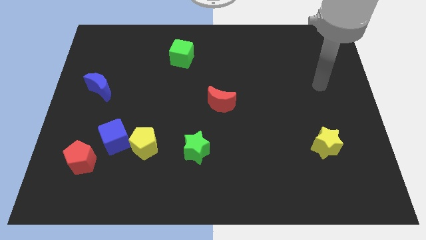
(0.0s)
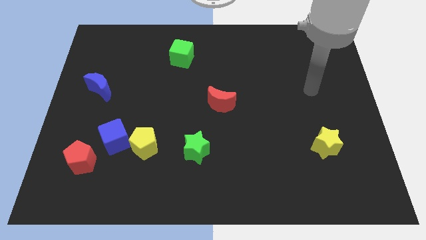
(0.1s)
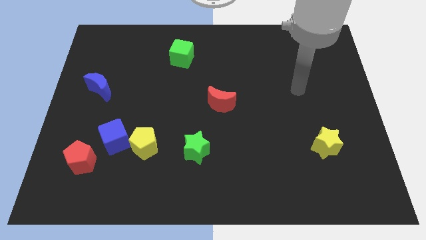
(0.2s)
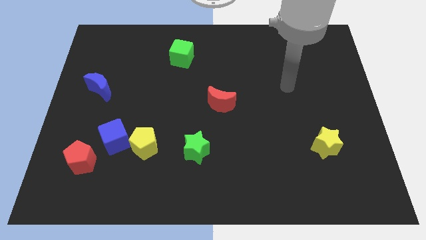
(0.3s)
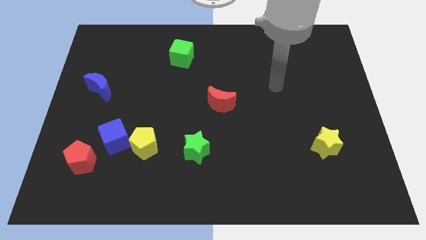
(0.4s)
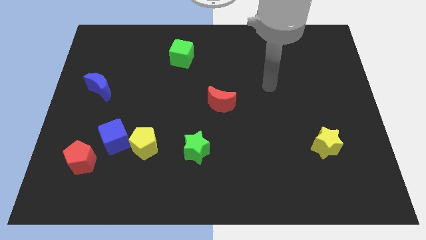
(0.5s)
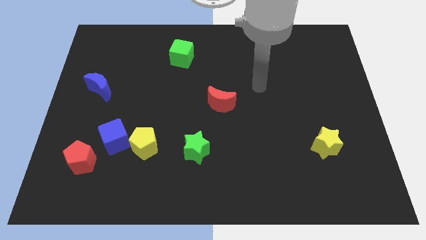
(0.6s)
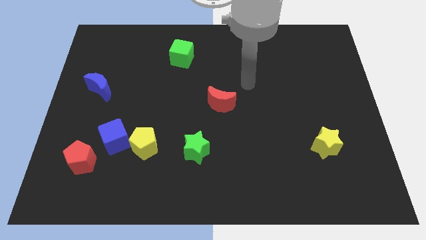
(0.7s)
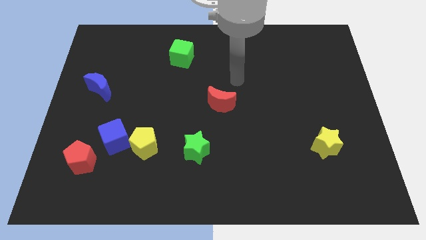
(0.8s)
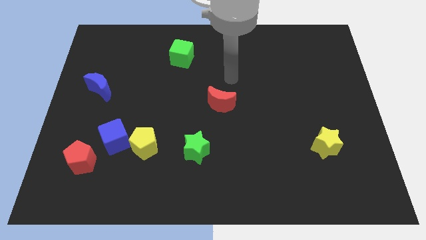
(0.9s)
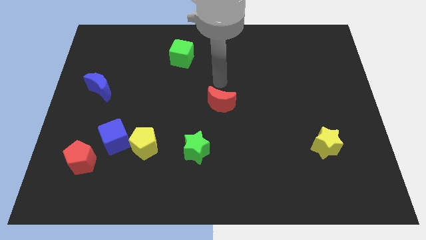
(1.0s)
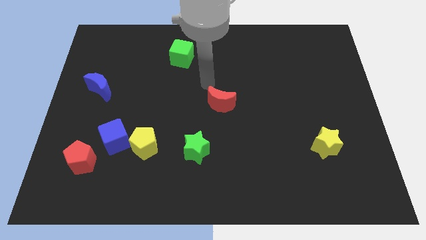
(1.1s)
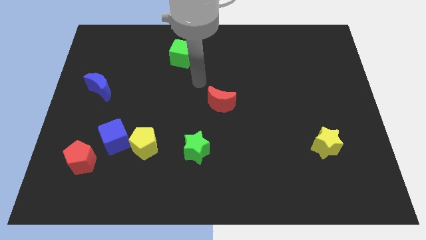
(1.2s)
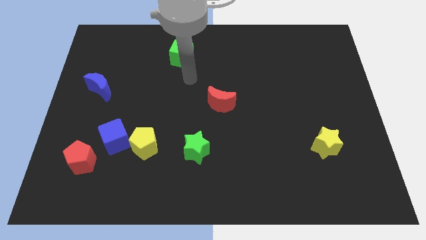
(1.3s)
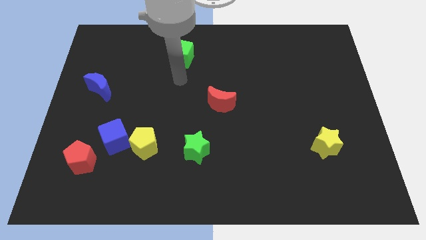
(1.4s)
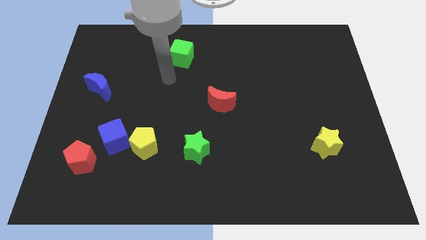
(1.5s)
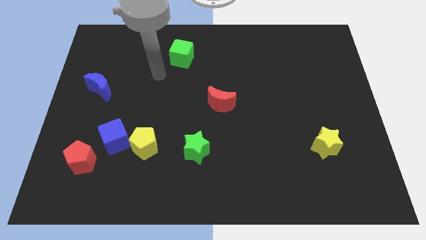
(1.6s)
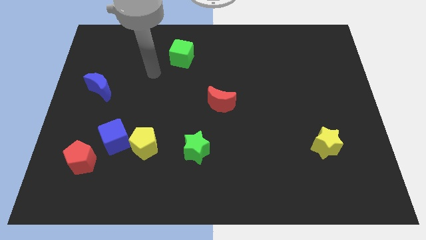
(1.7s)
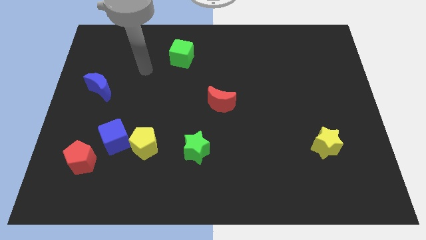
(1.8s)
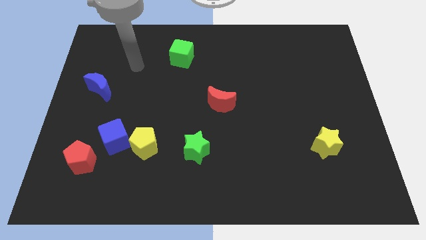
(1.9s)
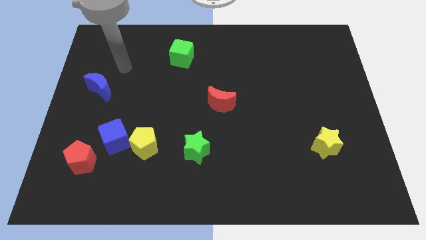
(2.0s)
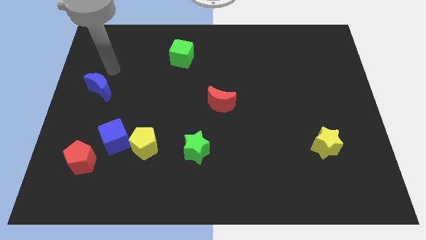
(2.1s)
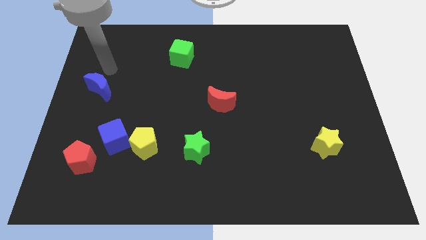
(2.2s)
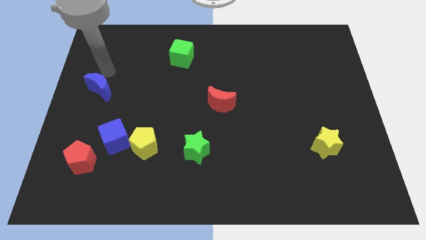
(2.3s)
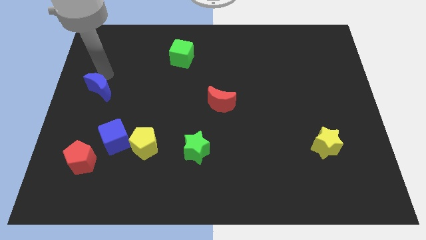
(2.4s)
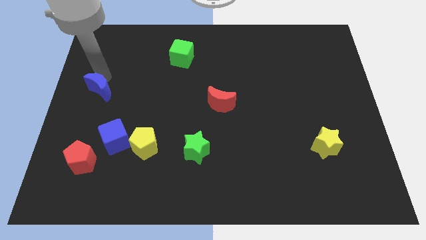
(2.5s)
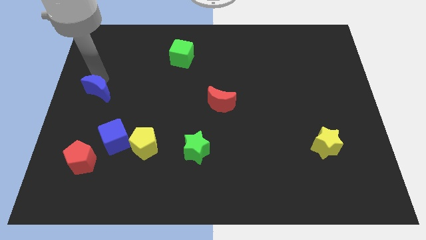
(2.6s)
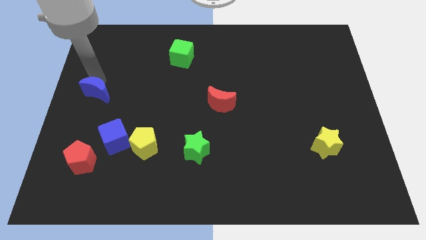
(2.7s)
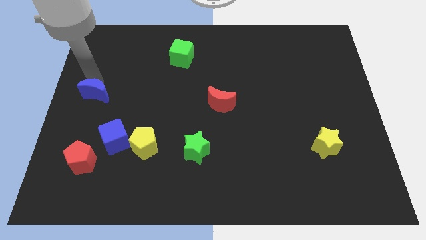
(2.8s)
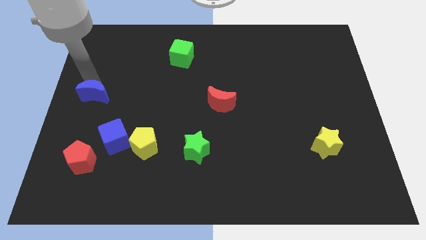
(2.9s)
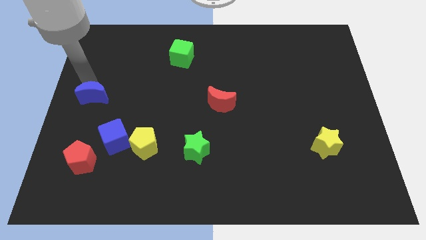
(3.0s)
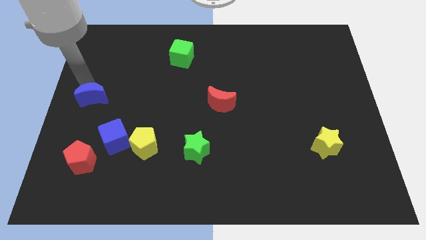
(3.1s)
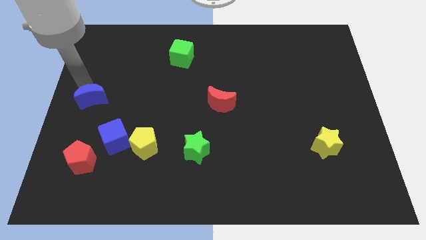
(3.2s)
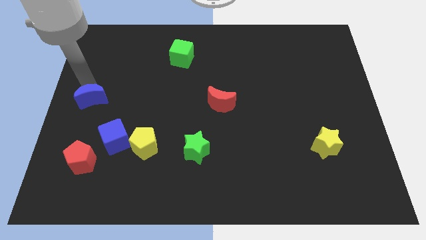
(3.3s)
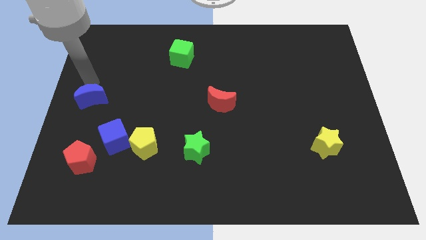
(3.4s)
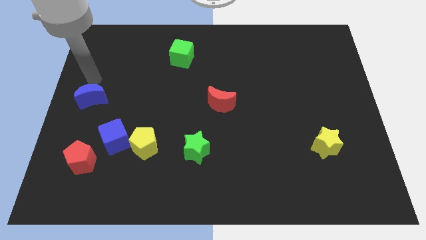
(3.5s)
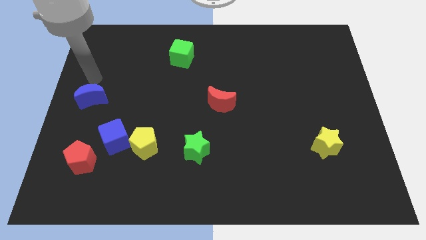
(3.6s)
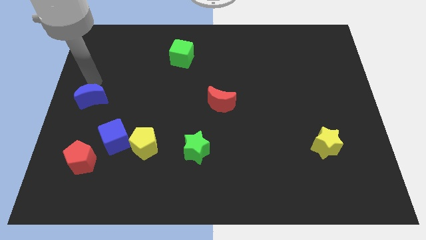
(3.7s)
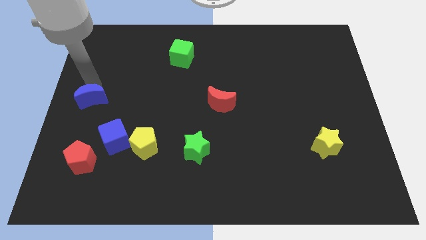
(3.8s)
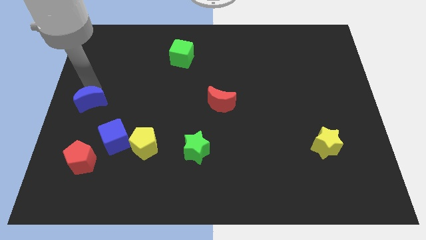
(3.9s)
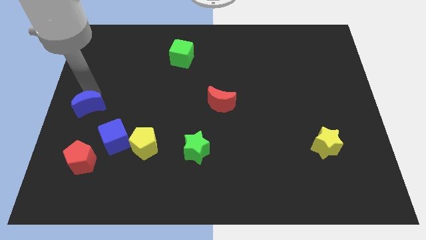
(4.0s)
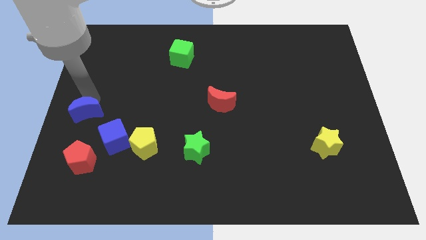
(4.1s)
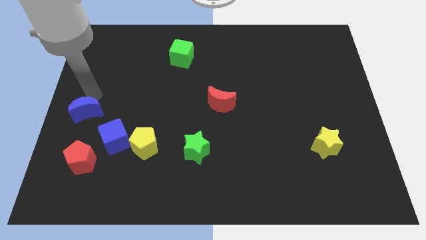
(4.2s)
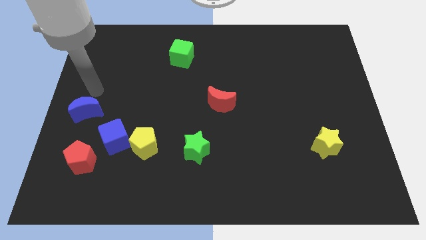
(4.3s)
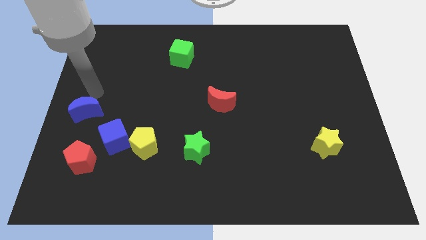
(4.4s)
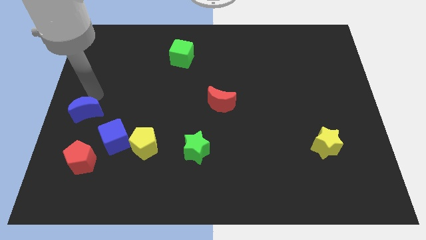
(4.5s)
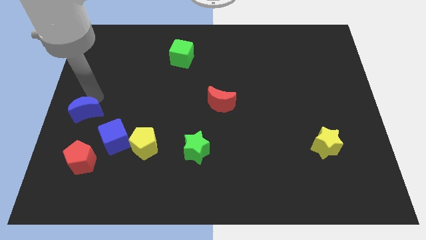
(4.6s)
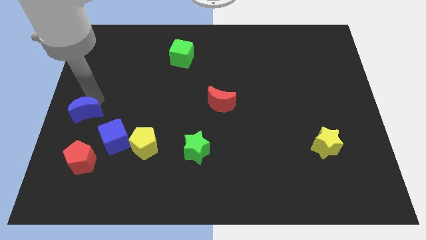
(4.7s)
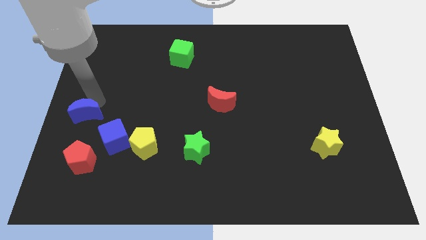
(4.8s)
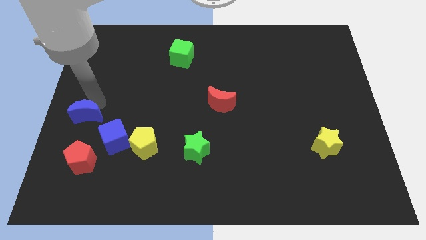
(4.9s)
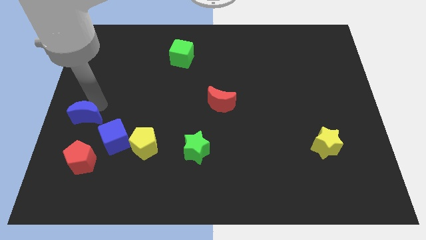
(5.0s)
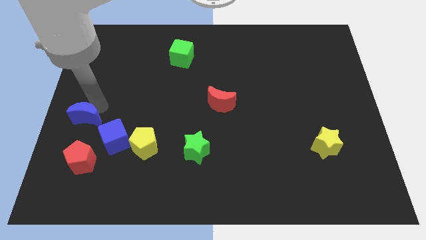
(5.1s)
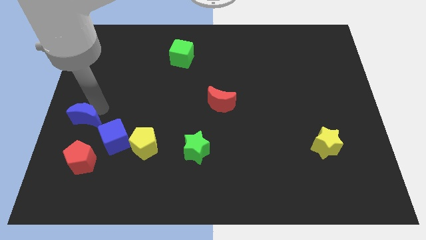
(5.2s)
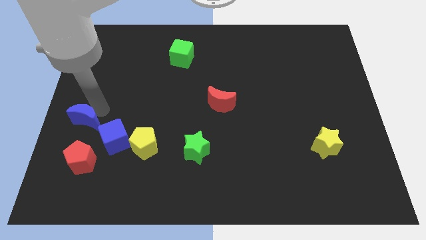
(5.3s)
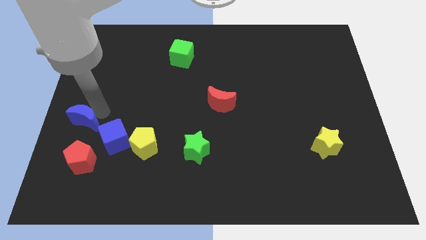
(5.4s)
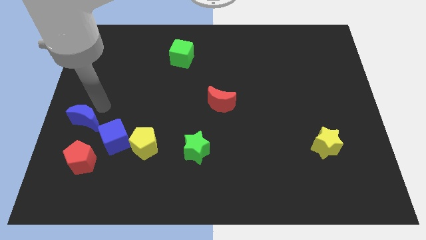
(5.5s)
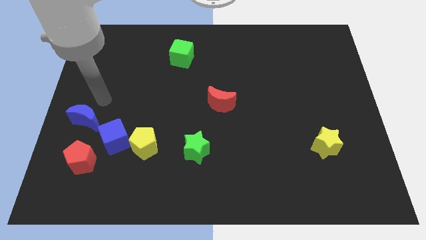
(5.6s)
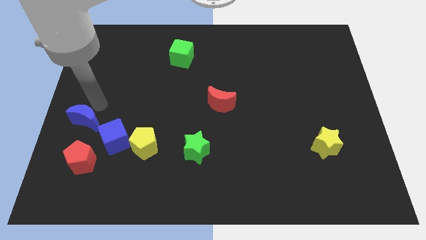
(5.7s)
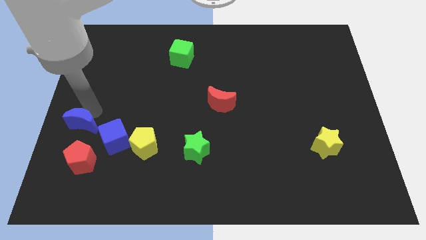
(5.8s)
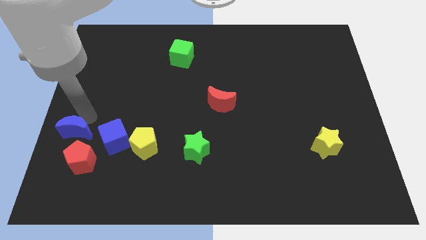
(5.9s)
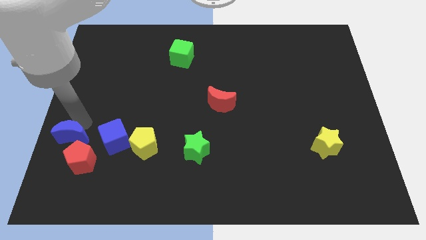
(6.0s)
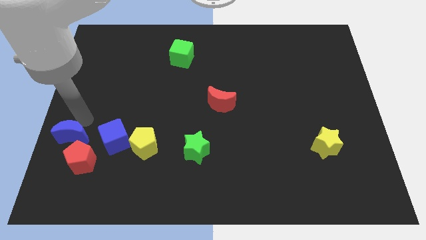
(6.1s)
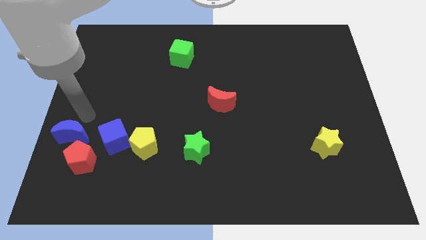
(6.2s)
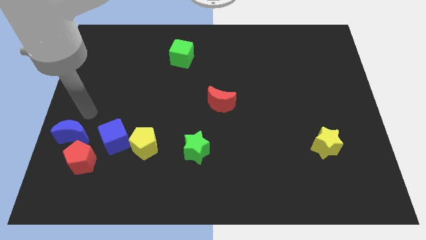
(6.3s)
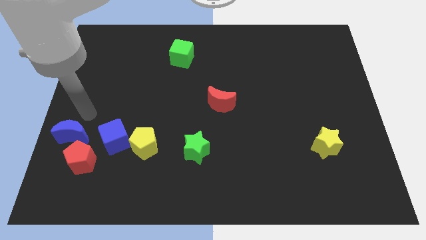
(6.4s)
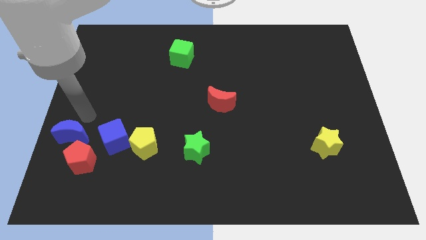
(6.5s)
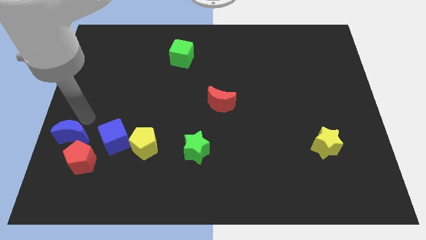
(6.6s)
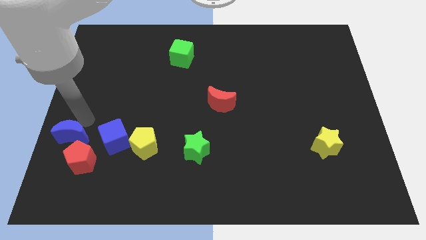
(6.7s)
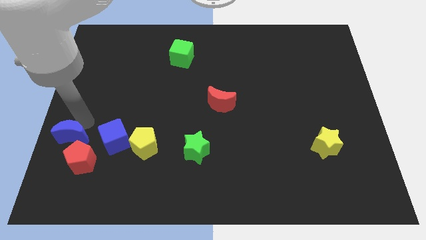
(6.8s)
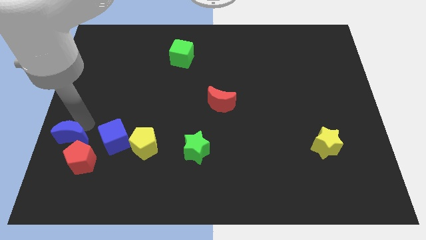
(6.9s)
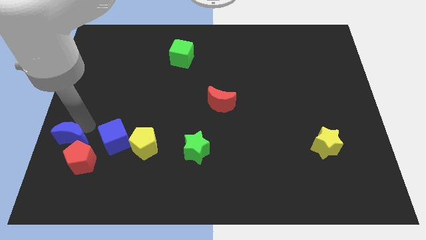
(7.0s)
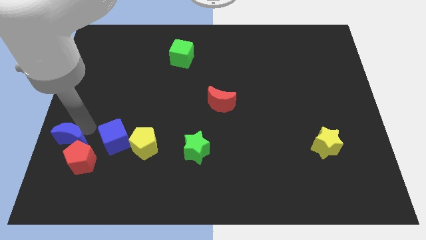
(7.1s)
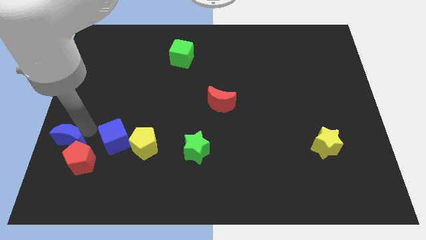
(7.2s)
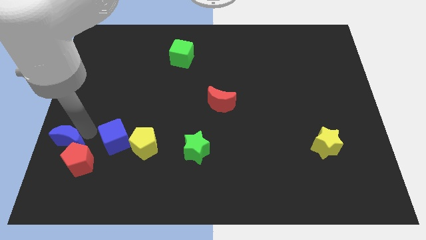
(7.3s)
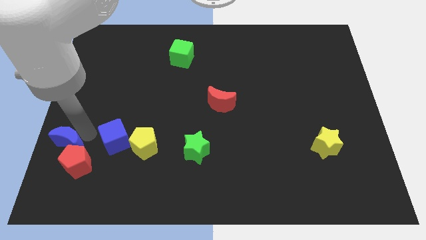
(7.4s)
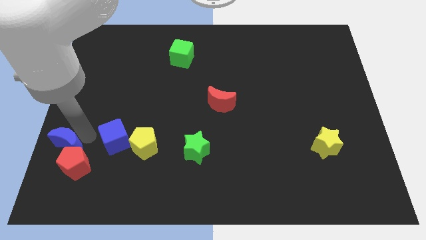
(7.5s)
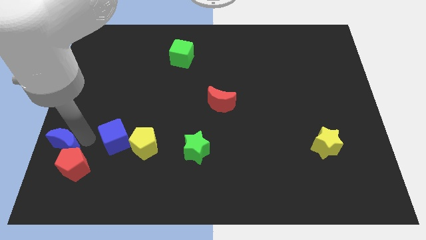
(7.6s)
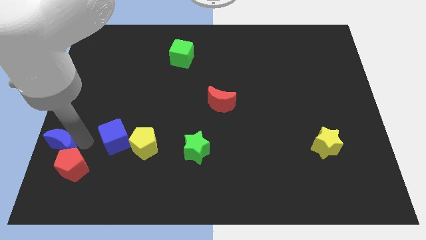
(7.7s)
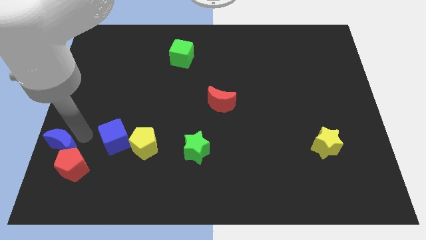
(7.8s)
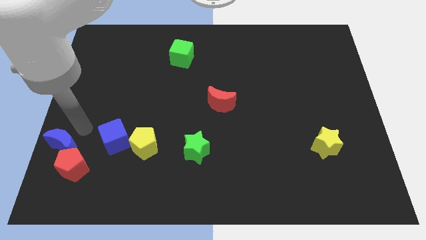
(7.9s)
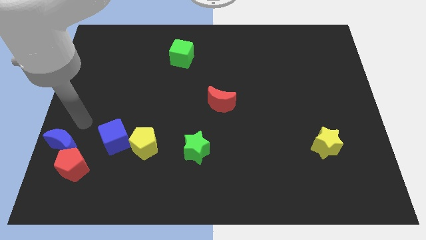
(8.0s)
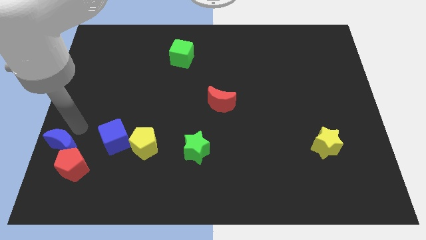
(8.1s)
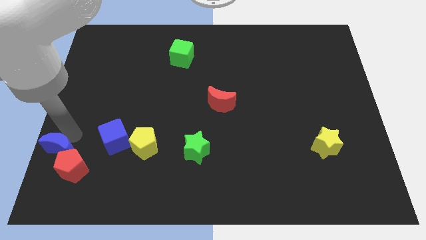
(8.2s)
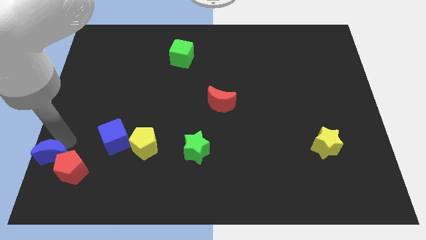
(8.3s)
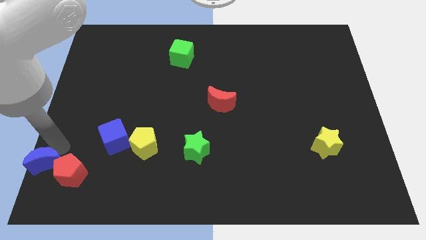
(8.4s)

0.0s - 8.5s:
put the blue moon to the bottom left of the board
